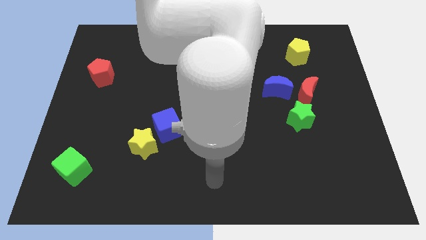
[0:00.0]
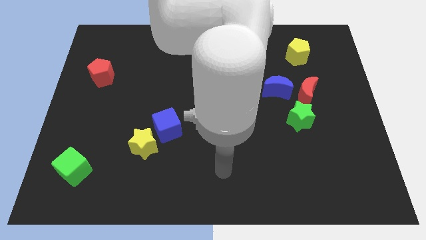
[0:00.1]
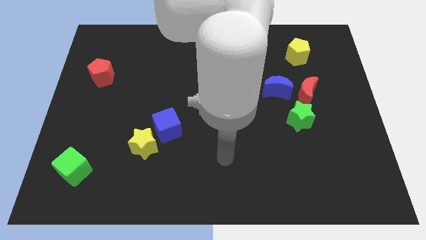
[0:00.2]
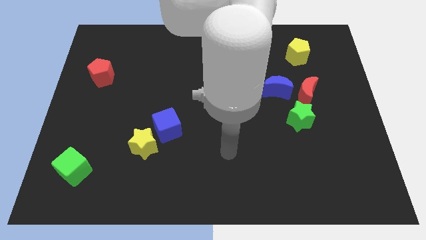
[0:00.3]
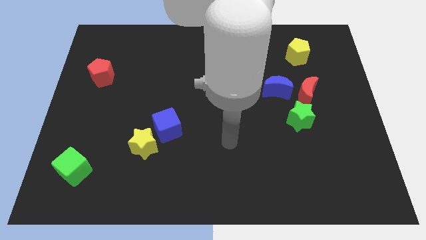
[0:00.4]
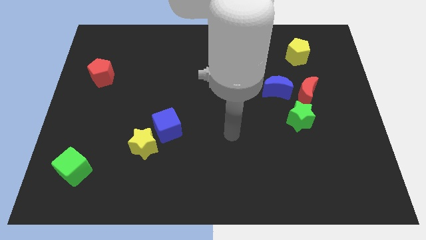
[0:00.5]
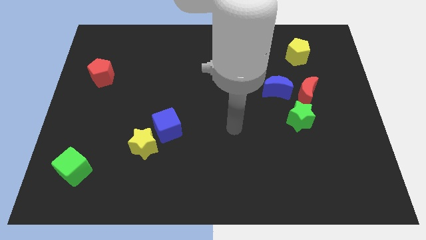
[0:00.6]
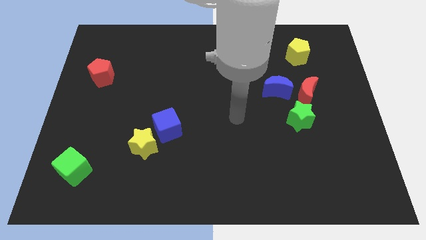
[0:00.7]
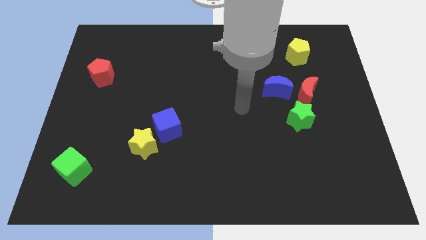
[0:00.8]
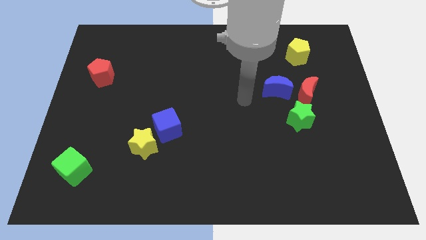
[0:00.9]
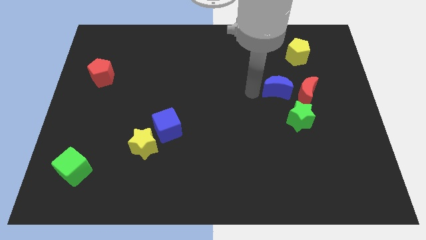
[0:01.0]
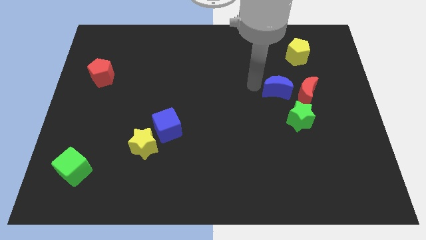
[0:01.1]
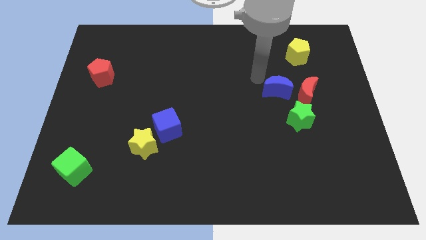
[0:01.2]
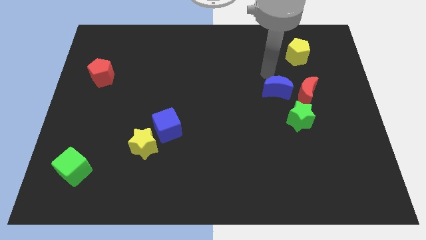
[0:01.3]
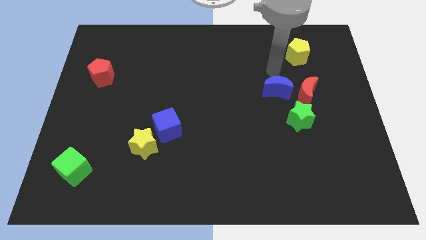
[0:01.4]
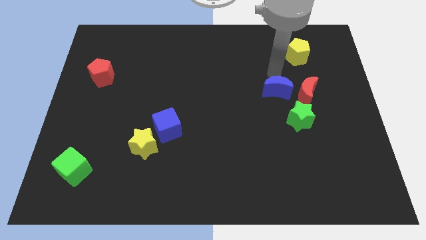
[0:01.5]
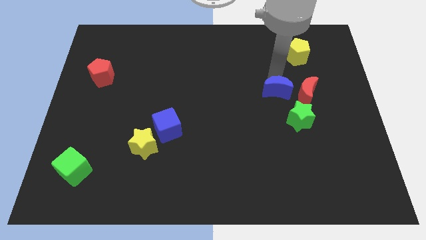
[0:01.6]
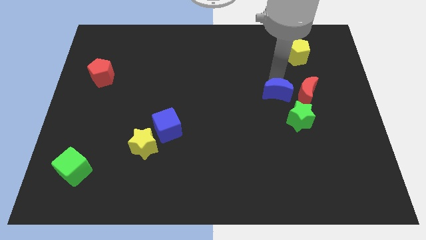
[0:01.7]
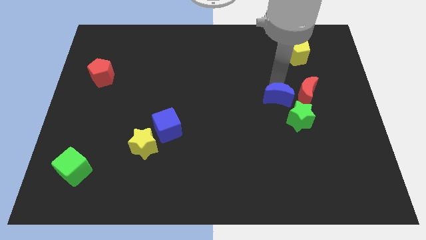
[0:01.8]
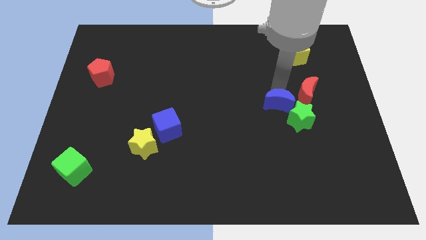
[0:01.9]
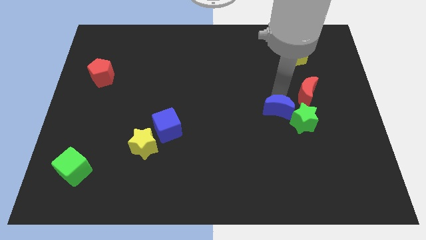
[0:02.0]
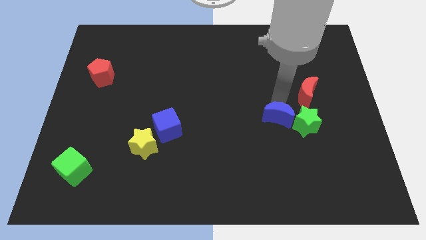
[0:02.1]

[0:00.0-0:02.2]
move the blue moon downwards a little bit

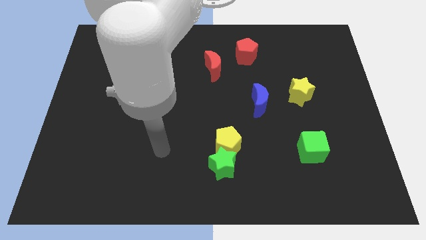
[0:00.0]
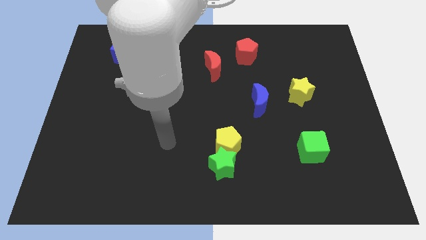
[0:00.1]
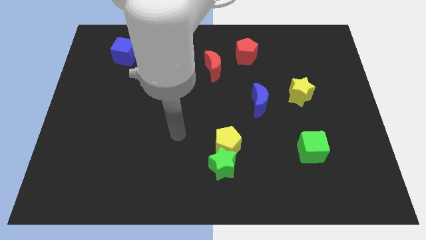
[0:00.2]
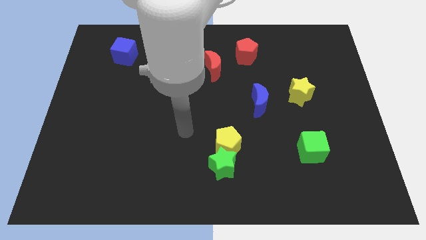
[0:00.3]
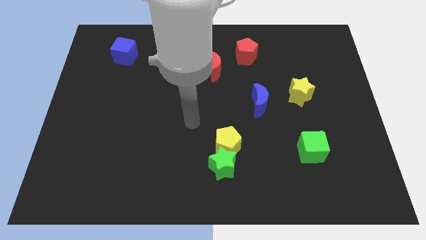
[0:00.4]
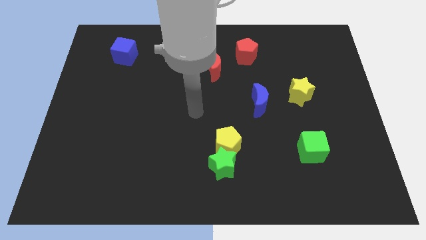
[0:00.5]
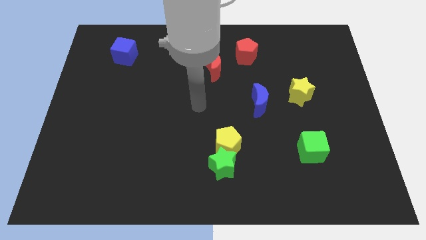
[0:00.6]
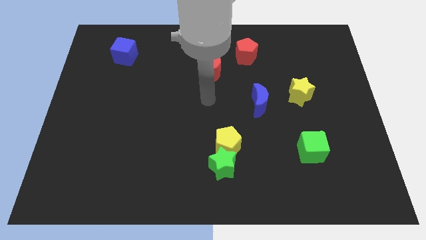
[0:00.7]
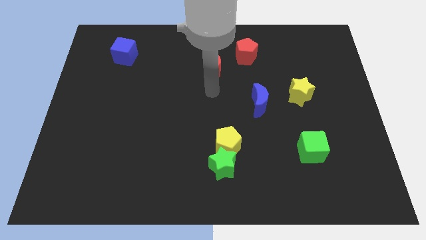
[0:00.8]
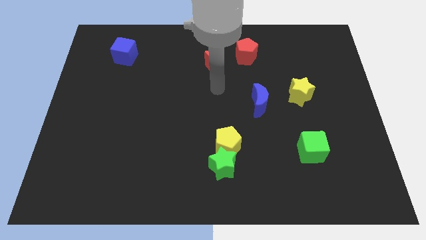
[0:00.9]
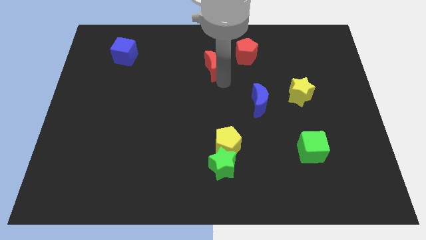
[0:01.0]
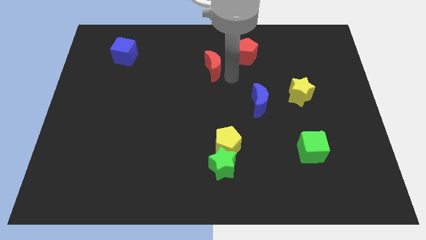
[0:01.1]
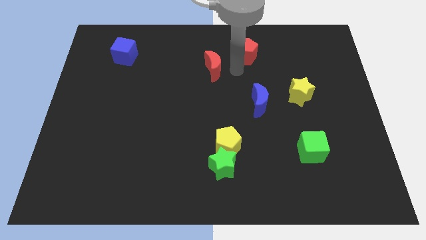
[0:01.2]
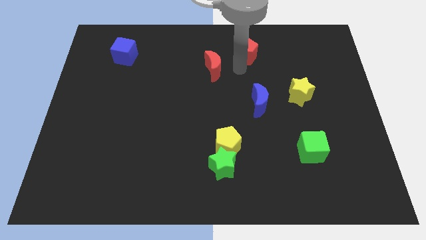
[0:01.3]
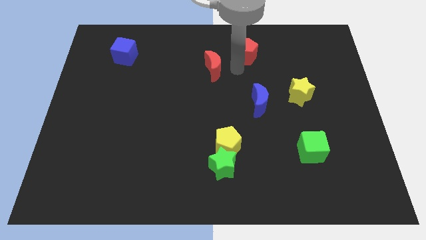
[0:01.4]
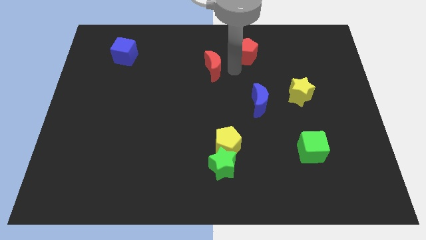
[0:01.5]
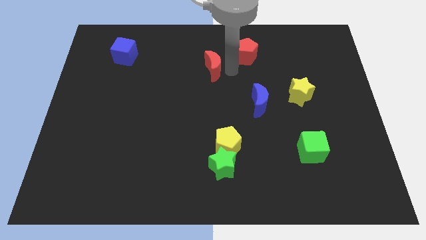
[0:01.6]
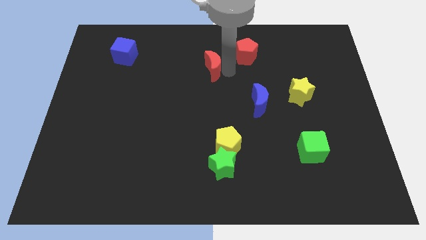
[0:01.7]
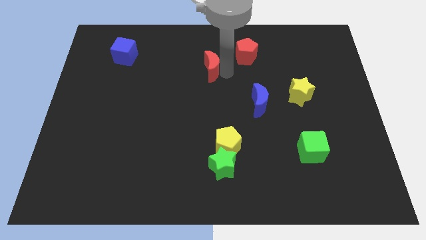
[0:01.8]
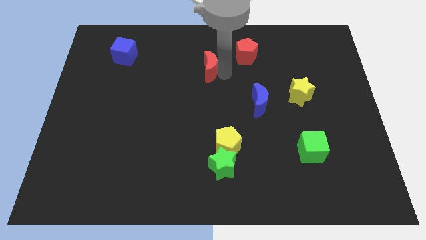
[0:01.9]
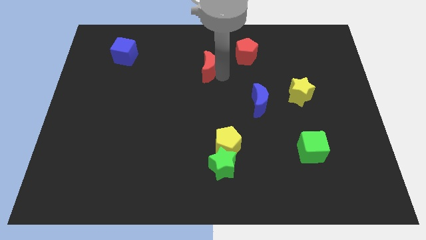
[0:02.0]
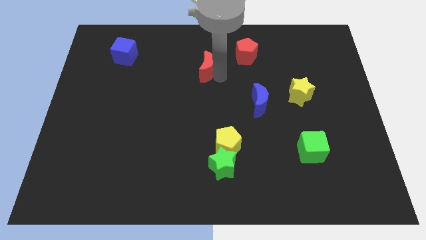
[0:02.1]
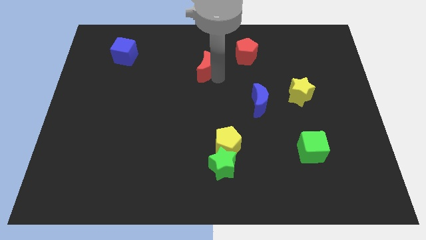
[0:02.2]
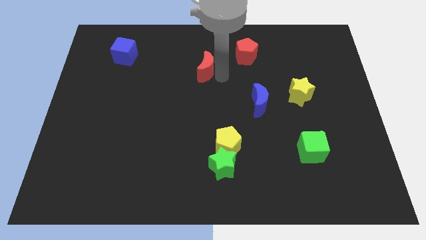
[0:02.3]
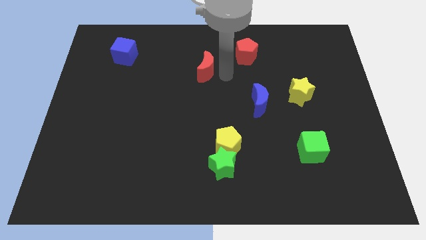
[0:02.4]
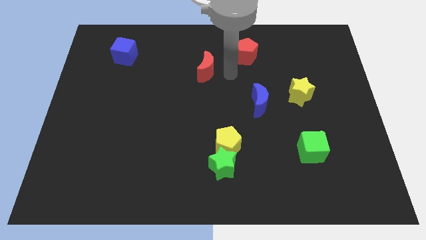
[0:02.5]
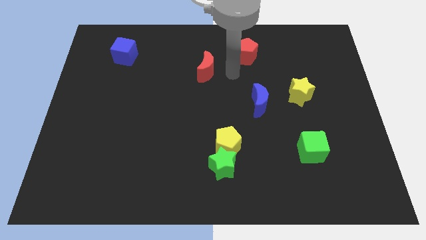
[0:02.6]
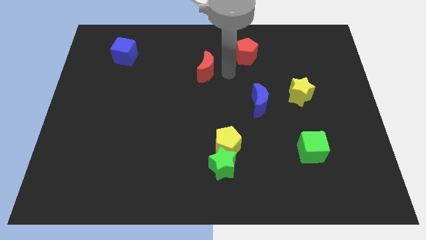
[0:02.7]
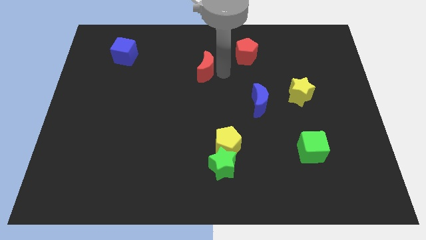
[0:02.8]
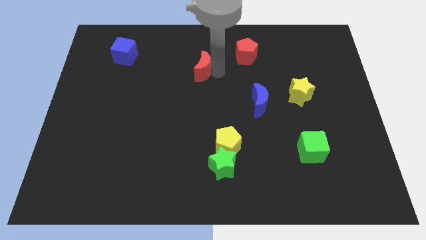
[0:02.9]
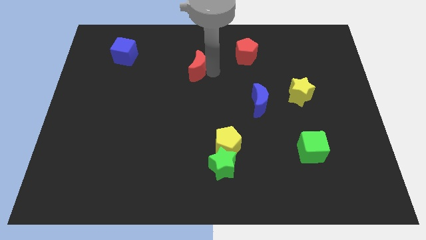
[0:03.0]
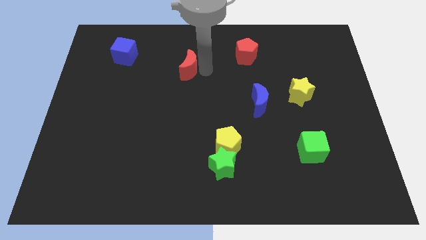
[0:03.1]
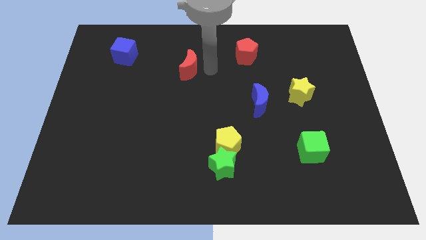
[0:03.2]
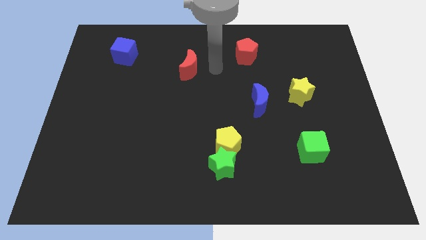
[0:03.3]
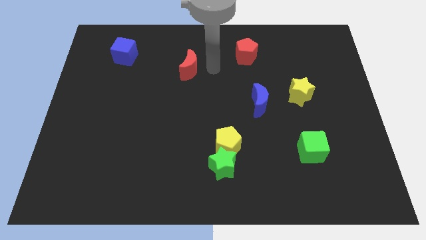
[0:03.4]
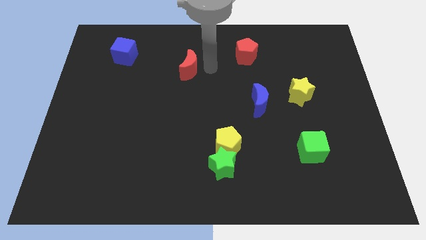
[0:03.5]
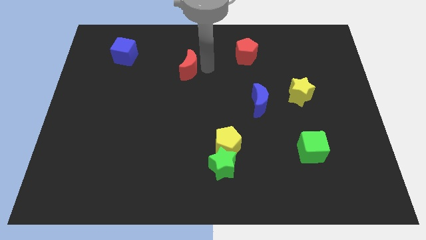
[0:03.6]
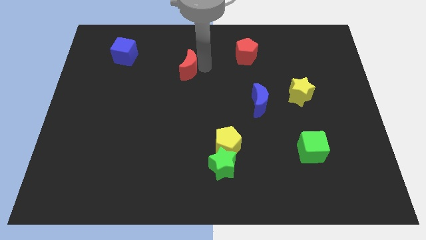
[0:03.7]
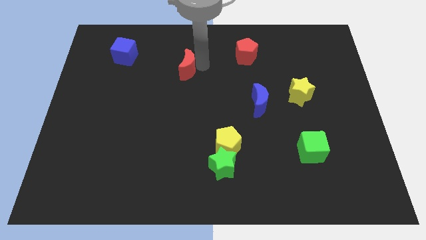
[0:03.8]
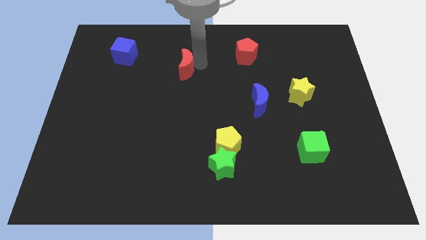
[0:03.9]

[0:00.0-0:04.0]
slightly slide the red moon to the left

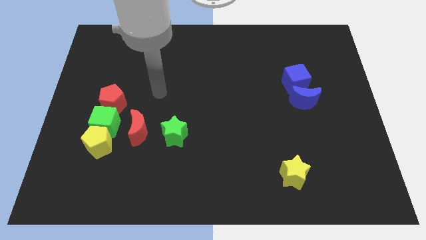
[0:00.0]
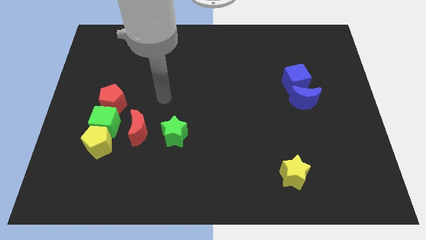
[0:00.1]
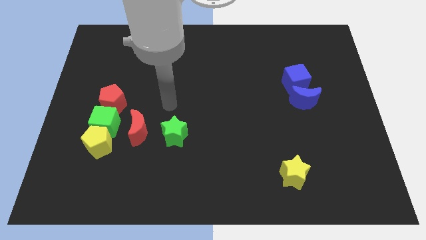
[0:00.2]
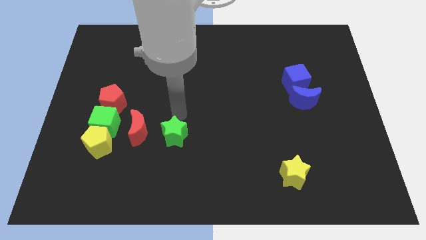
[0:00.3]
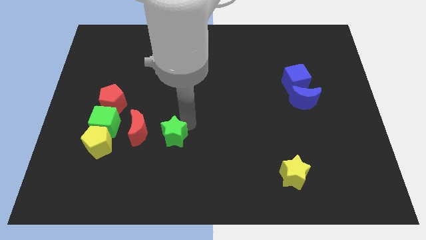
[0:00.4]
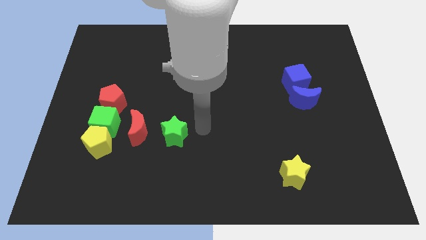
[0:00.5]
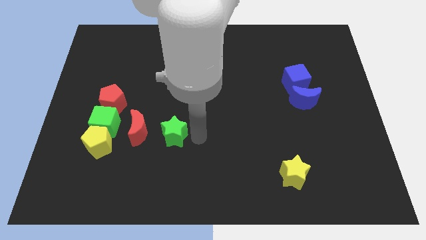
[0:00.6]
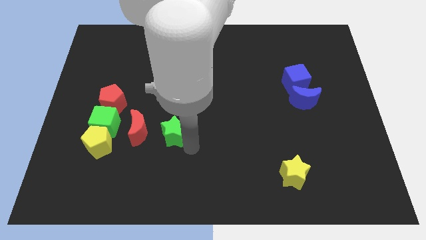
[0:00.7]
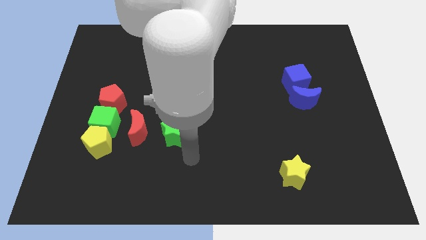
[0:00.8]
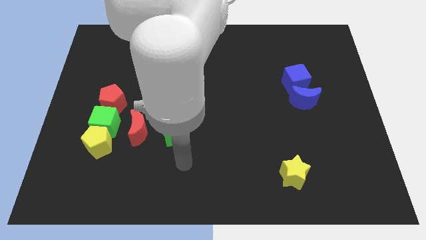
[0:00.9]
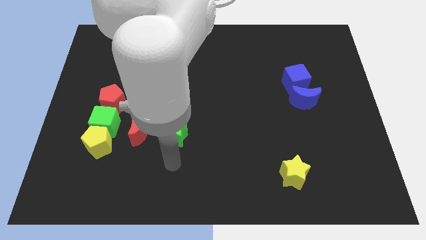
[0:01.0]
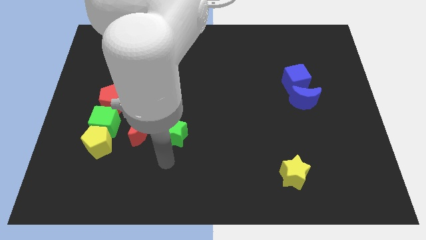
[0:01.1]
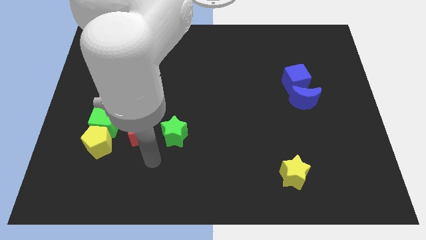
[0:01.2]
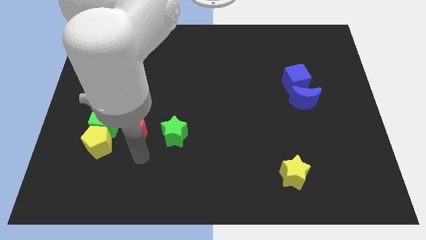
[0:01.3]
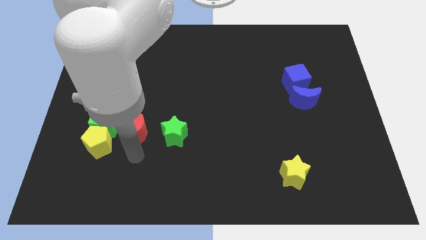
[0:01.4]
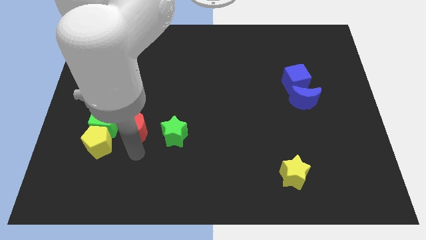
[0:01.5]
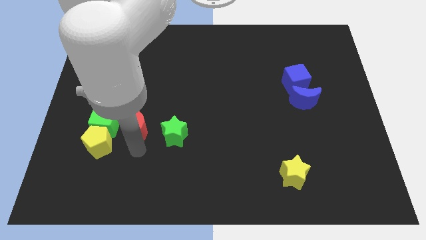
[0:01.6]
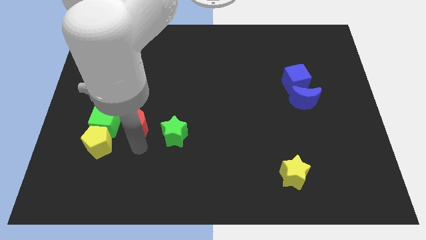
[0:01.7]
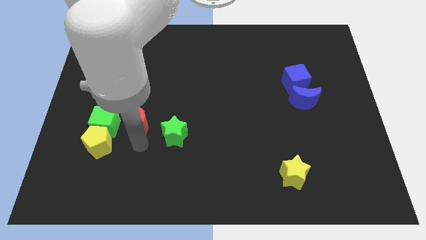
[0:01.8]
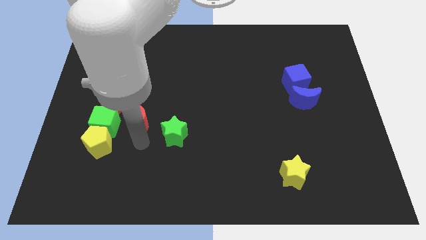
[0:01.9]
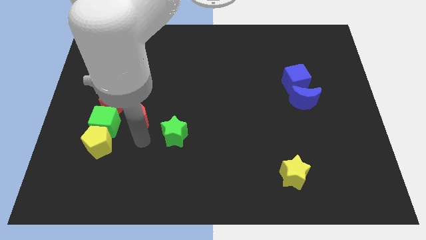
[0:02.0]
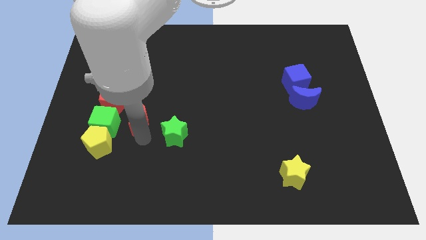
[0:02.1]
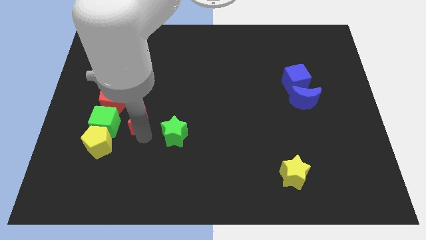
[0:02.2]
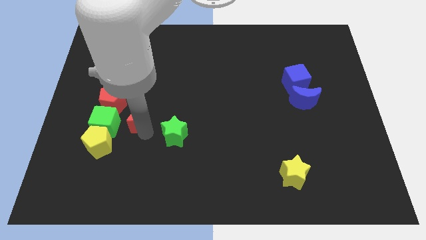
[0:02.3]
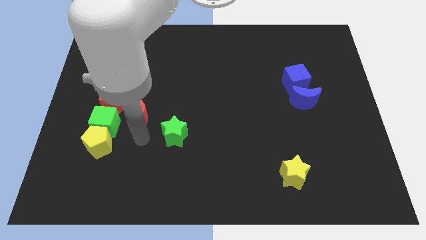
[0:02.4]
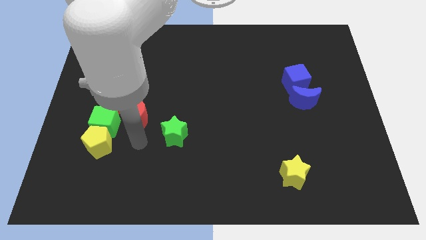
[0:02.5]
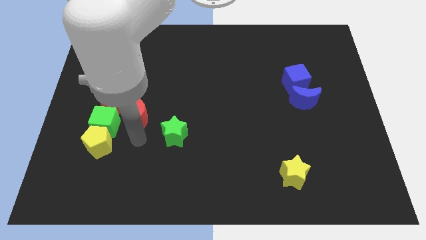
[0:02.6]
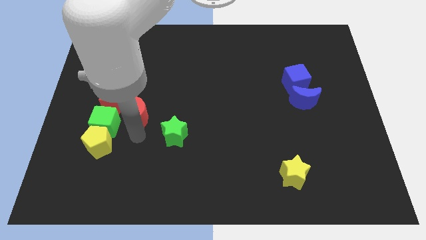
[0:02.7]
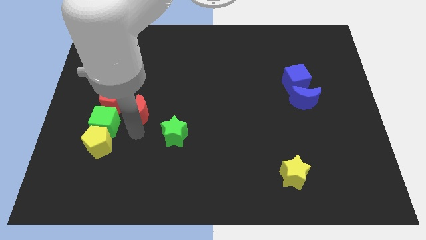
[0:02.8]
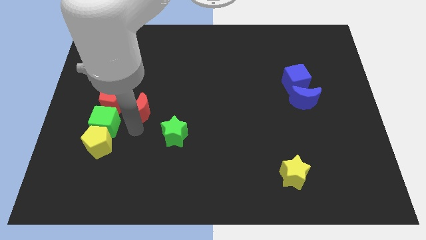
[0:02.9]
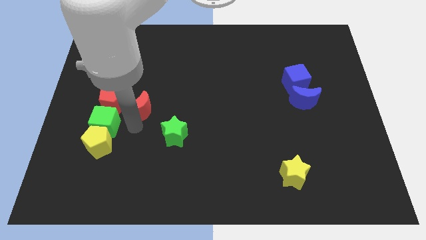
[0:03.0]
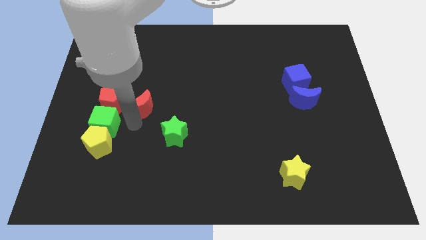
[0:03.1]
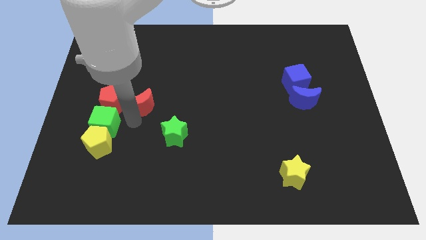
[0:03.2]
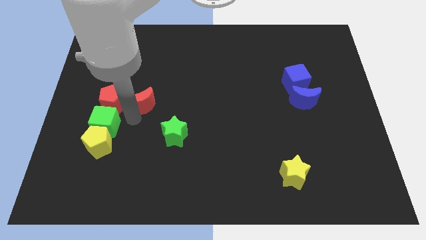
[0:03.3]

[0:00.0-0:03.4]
push the red moon a little bit upwards
